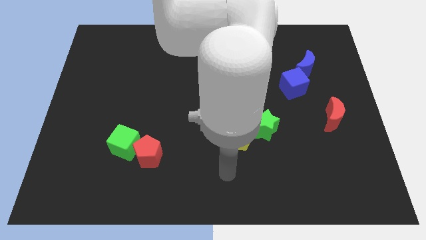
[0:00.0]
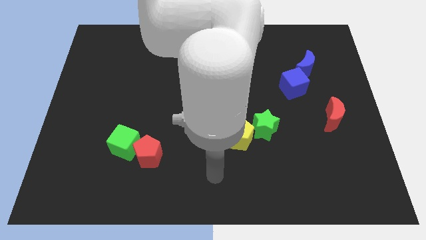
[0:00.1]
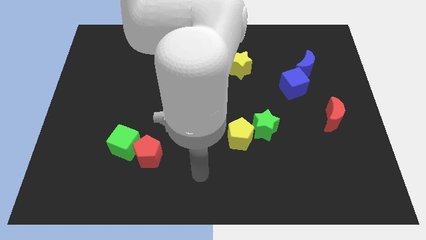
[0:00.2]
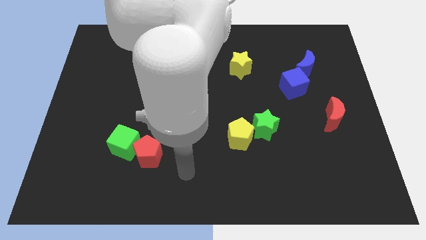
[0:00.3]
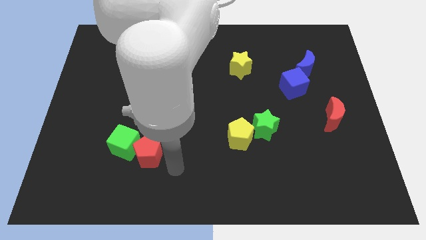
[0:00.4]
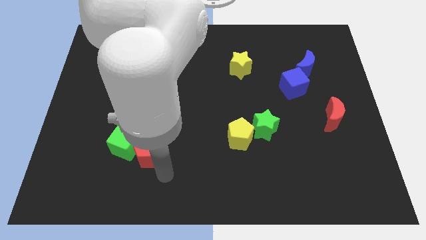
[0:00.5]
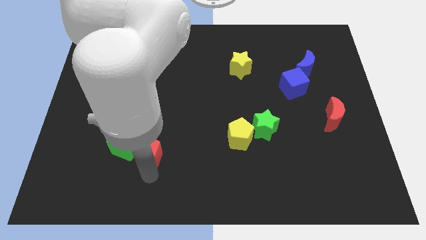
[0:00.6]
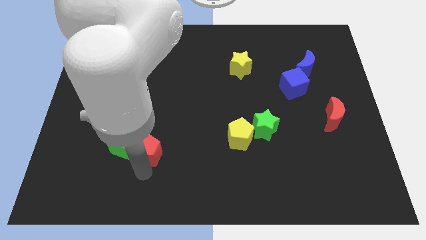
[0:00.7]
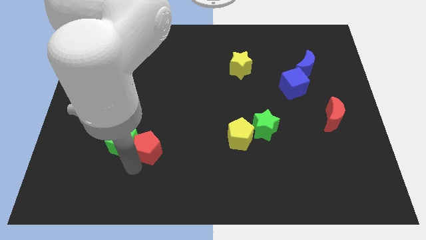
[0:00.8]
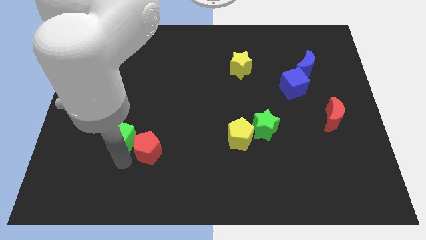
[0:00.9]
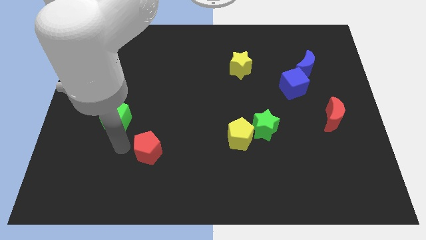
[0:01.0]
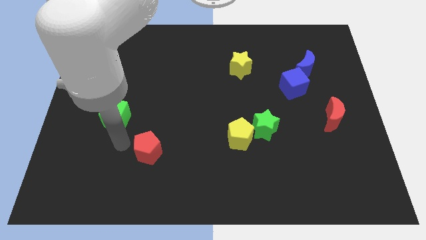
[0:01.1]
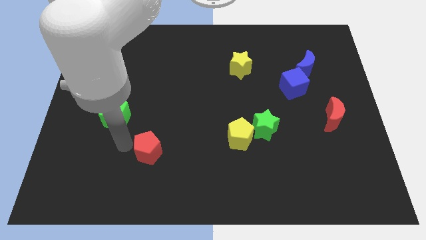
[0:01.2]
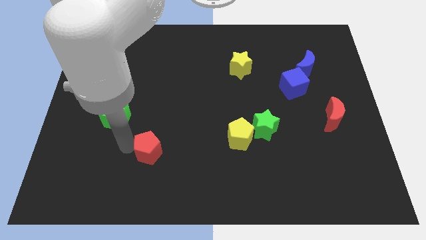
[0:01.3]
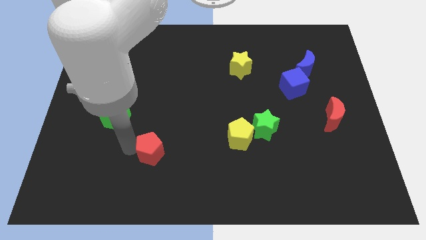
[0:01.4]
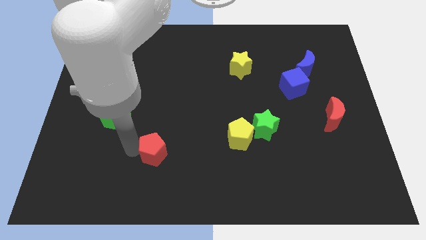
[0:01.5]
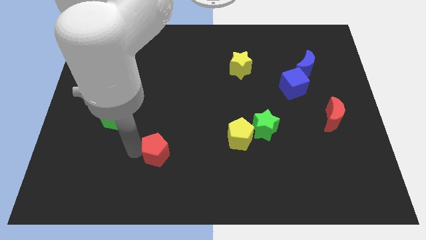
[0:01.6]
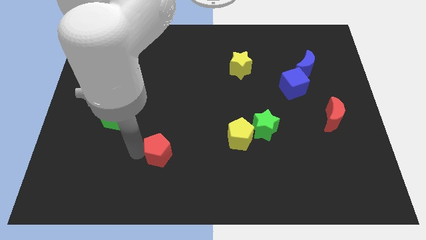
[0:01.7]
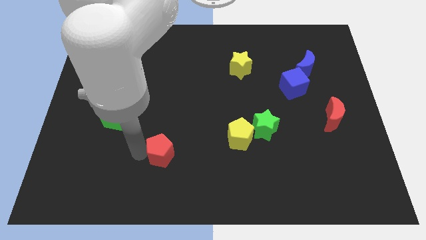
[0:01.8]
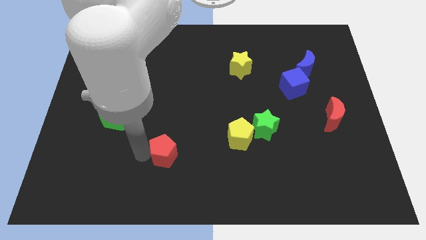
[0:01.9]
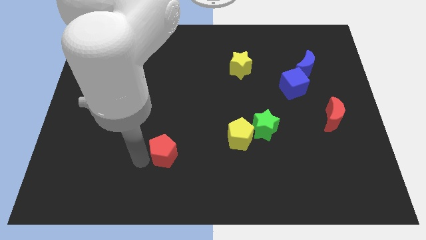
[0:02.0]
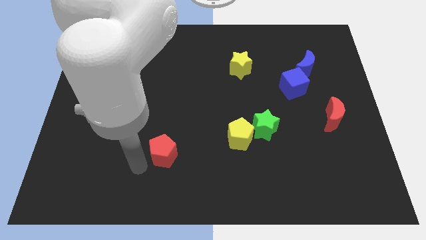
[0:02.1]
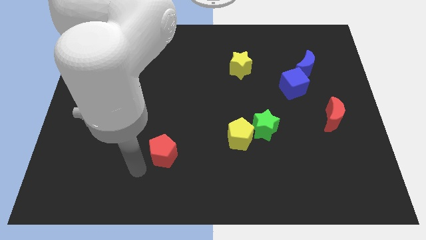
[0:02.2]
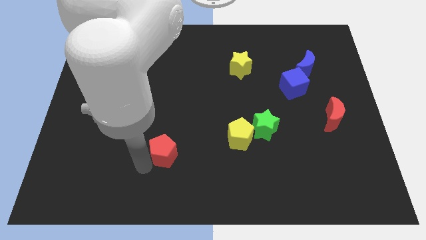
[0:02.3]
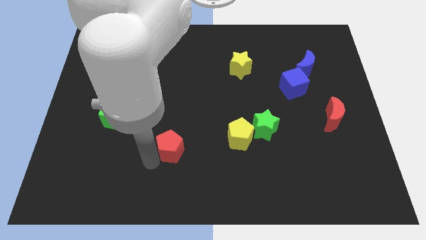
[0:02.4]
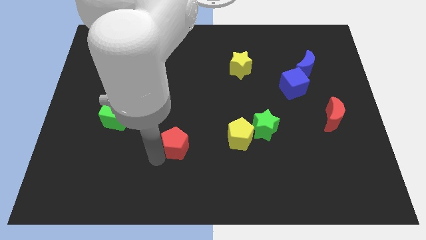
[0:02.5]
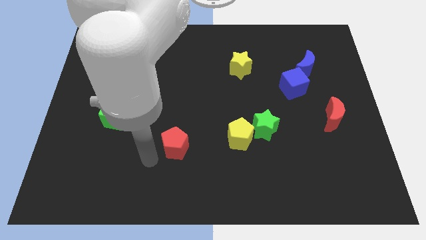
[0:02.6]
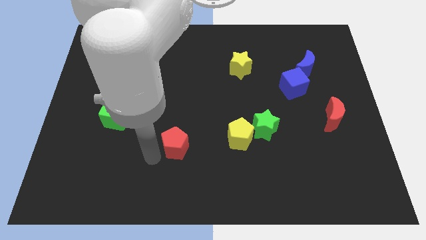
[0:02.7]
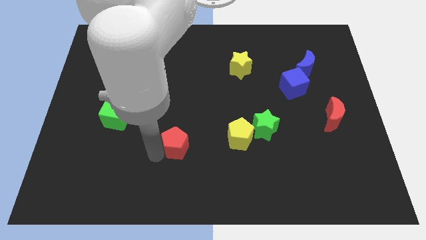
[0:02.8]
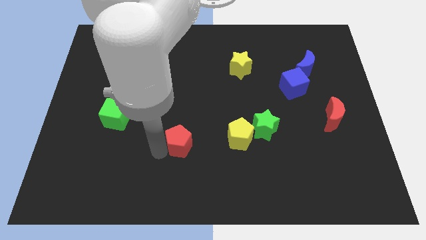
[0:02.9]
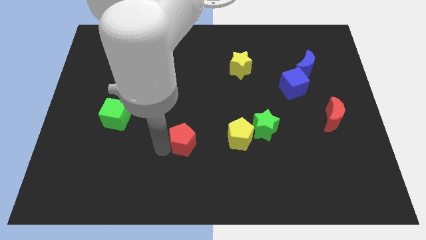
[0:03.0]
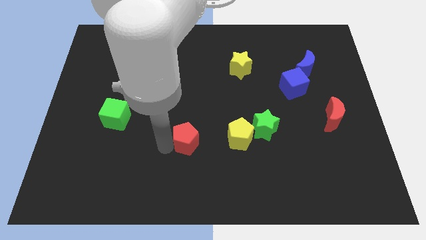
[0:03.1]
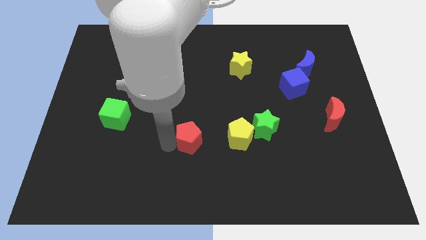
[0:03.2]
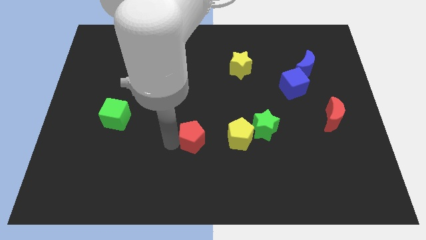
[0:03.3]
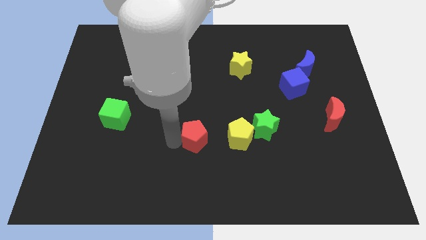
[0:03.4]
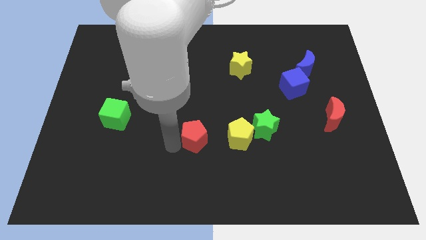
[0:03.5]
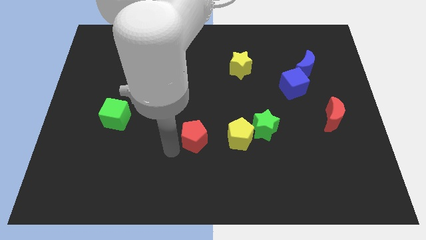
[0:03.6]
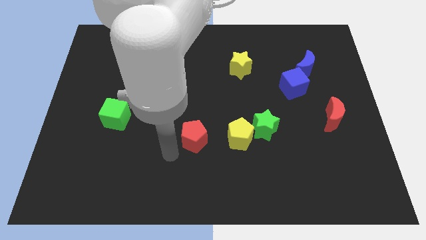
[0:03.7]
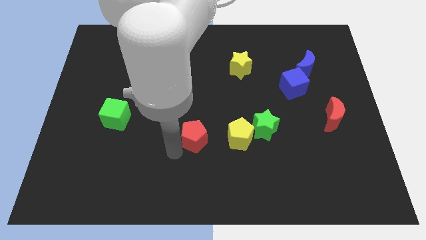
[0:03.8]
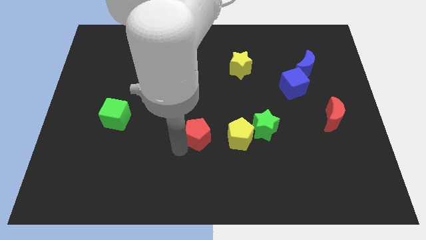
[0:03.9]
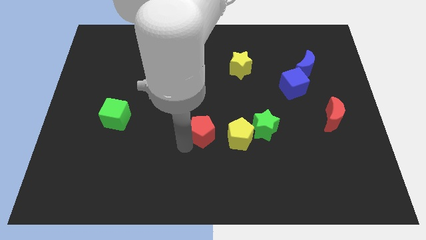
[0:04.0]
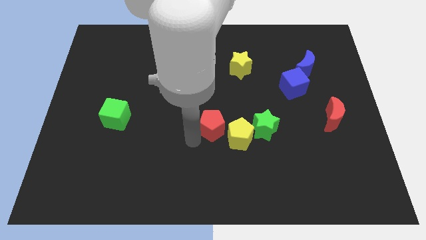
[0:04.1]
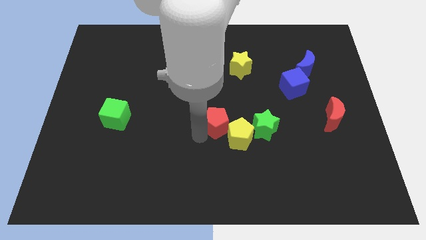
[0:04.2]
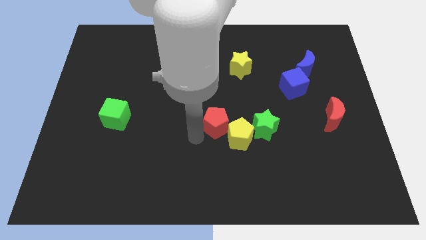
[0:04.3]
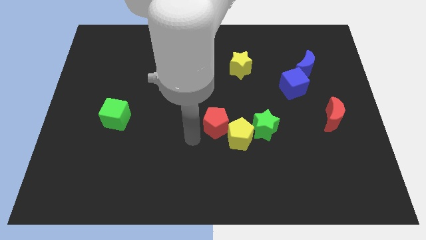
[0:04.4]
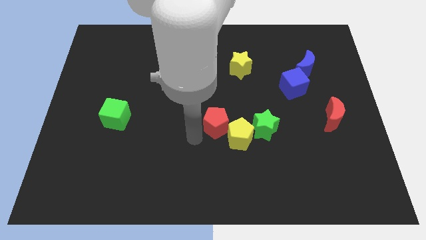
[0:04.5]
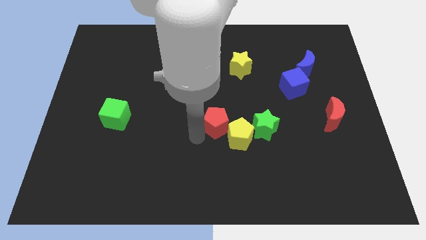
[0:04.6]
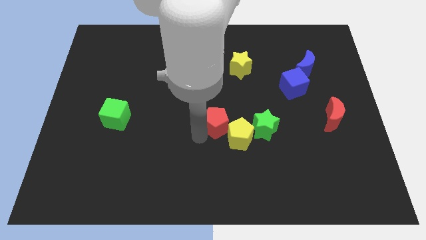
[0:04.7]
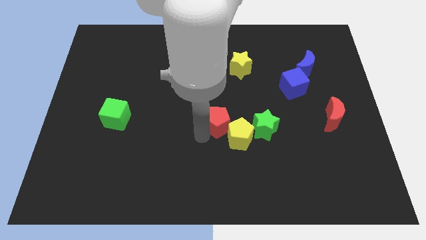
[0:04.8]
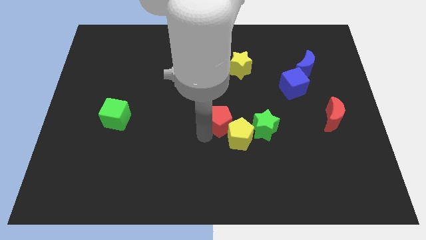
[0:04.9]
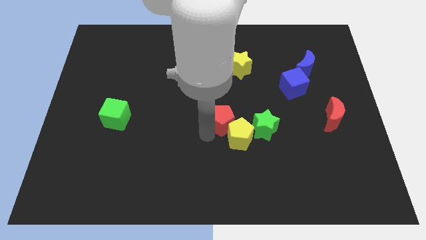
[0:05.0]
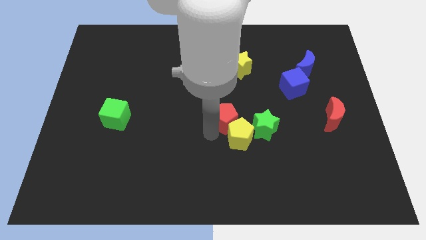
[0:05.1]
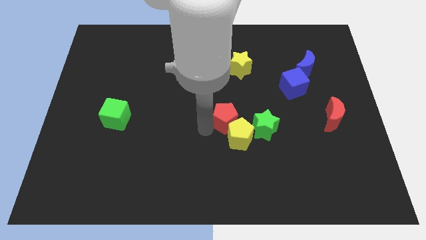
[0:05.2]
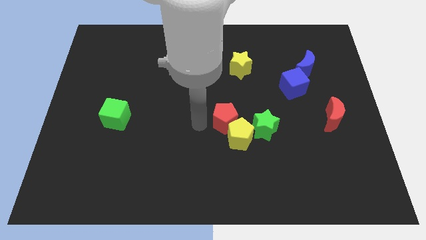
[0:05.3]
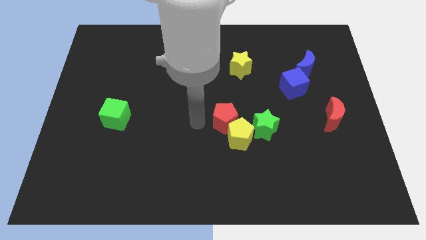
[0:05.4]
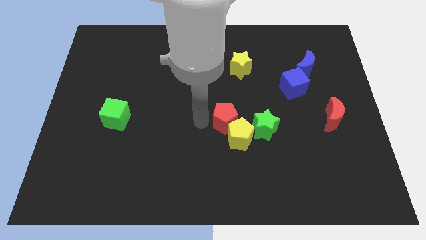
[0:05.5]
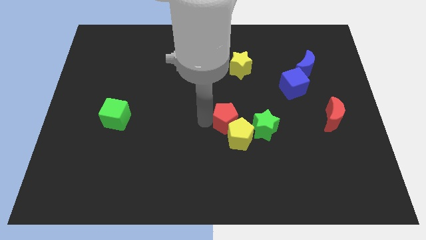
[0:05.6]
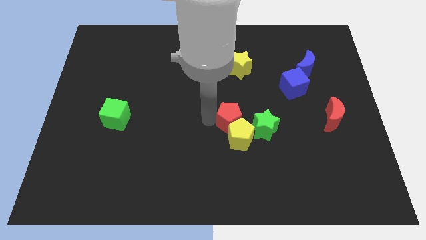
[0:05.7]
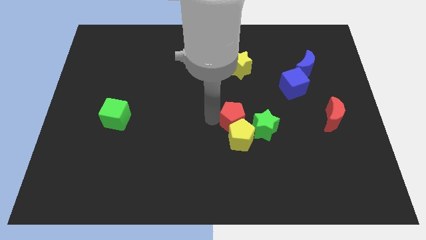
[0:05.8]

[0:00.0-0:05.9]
push the red pentagon diagonally up and to the right of the yellow pentagon

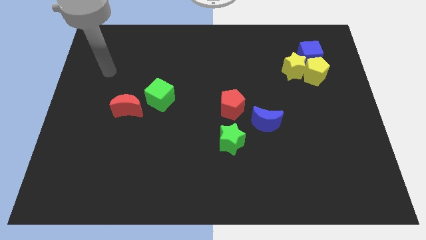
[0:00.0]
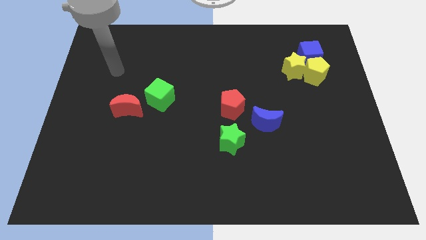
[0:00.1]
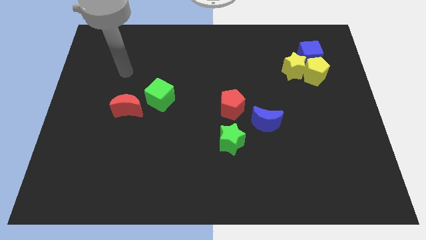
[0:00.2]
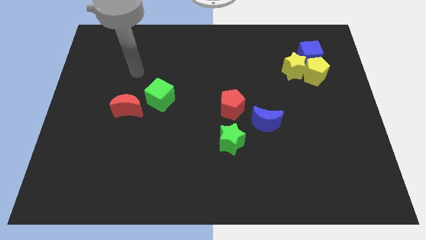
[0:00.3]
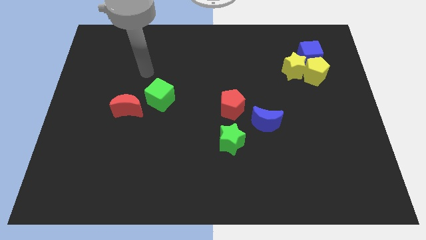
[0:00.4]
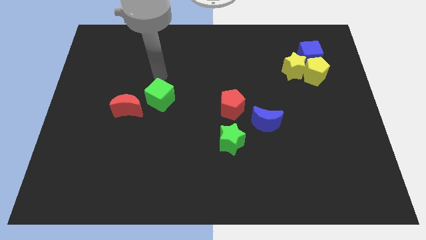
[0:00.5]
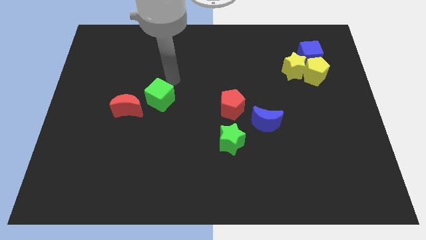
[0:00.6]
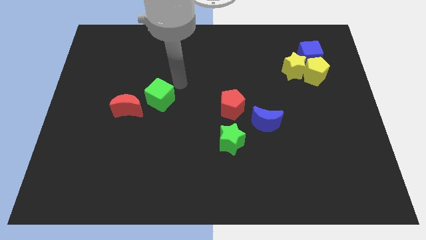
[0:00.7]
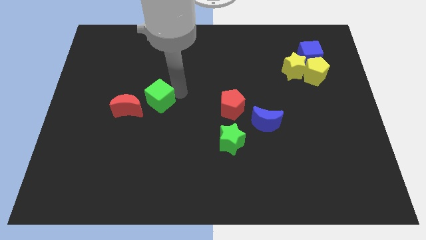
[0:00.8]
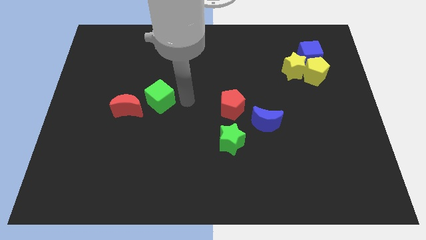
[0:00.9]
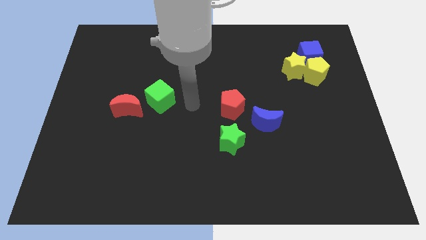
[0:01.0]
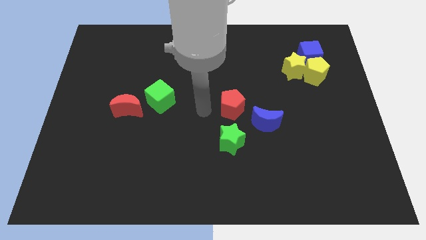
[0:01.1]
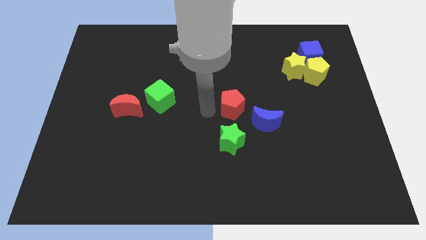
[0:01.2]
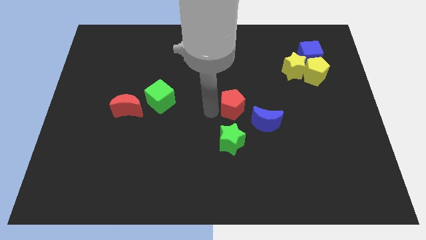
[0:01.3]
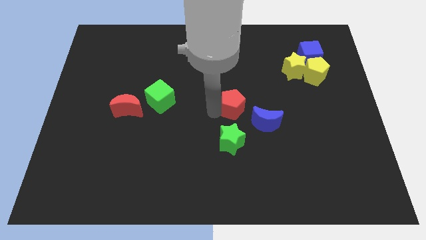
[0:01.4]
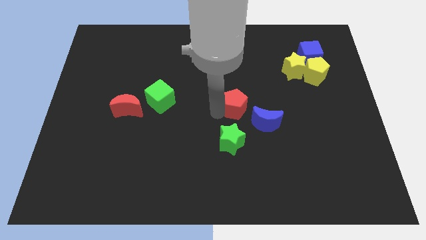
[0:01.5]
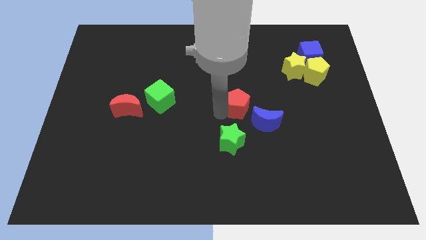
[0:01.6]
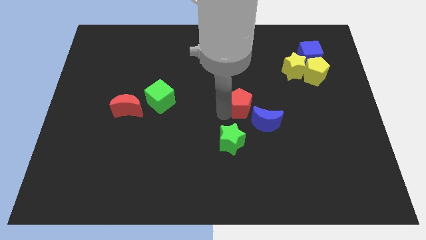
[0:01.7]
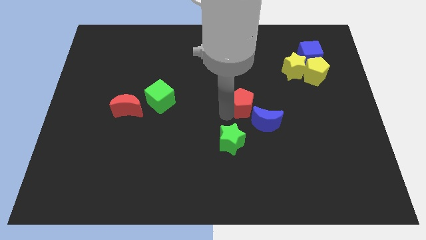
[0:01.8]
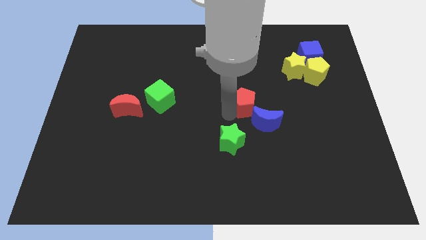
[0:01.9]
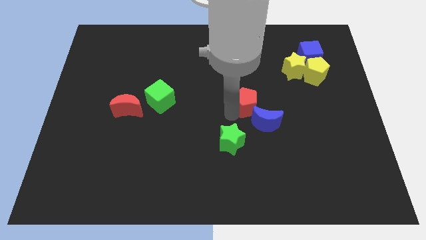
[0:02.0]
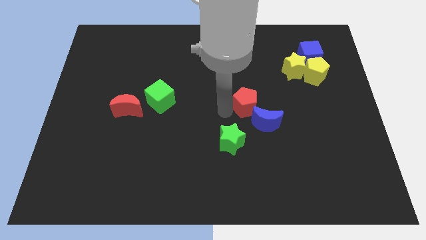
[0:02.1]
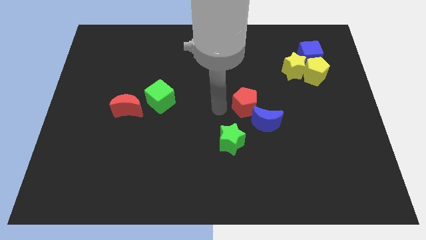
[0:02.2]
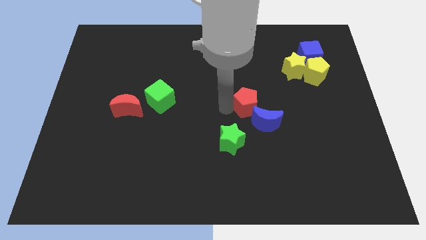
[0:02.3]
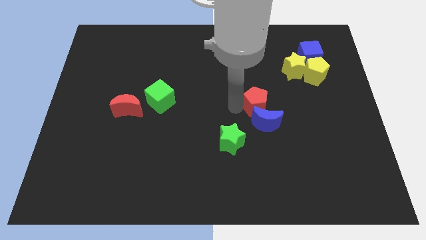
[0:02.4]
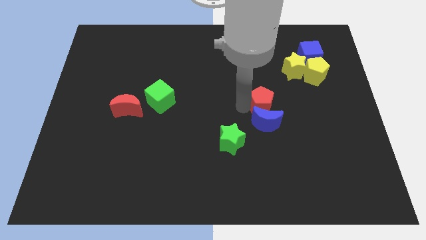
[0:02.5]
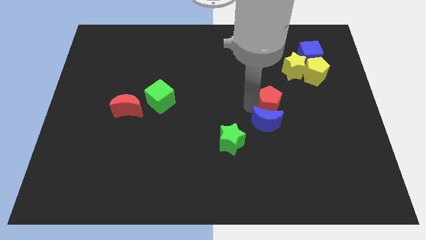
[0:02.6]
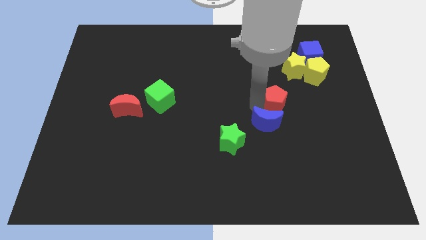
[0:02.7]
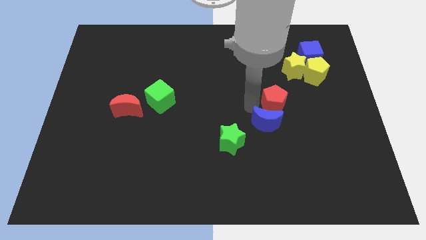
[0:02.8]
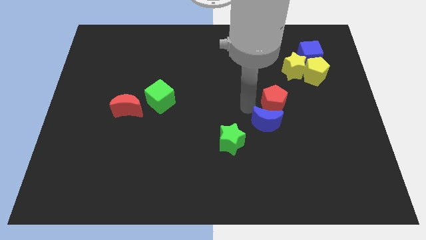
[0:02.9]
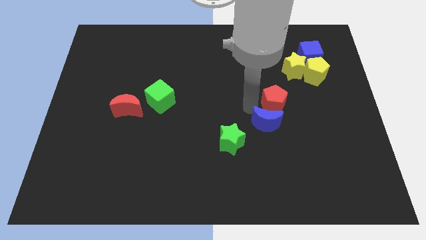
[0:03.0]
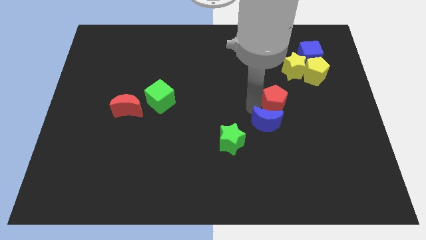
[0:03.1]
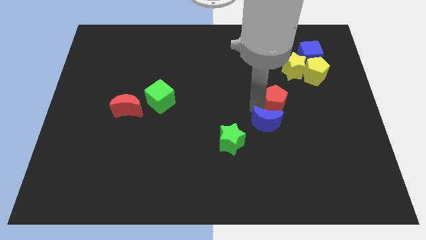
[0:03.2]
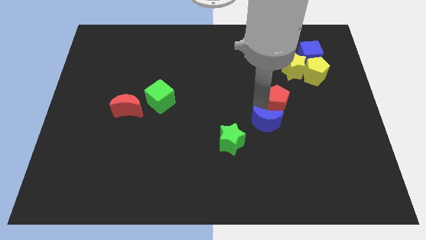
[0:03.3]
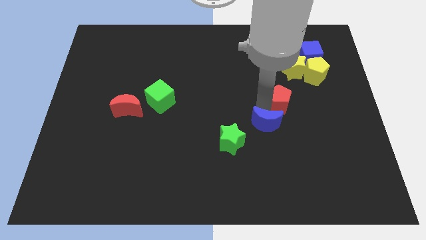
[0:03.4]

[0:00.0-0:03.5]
push the red pentagon to the bottom side of the yellow star
